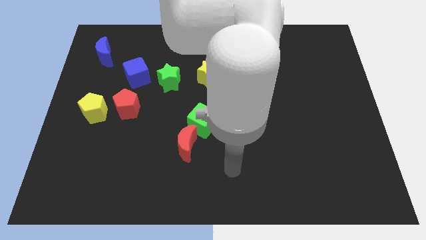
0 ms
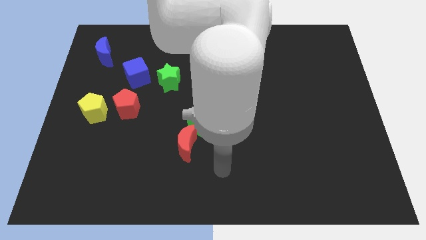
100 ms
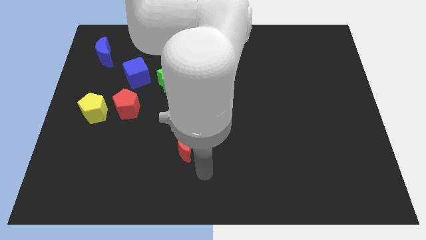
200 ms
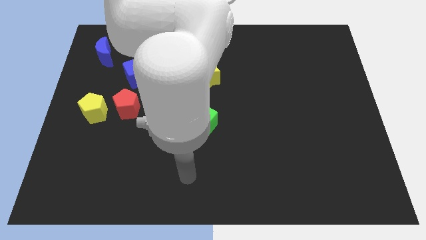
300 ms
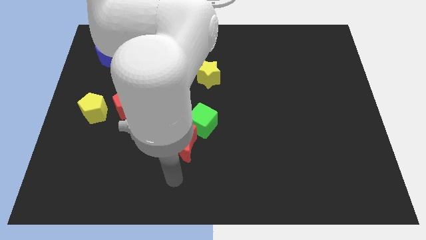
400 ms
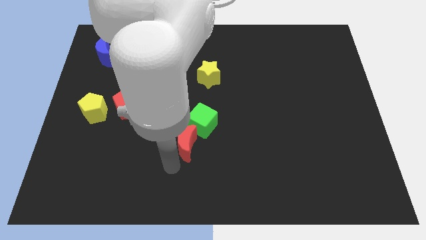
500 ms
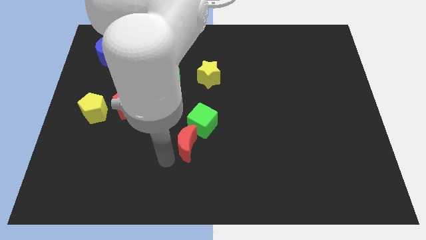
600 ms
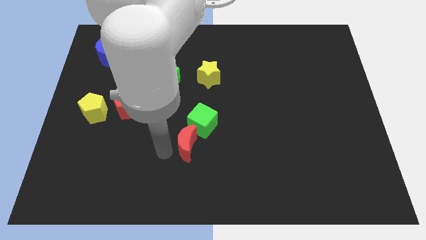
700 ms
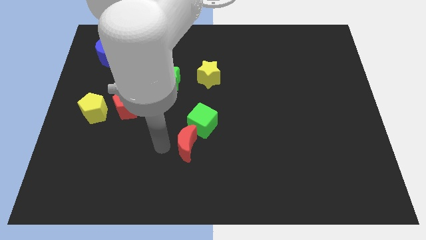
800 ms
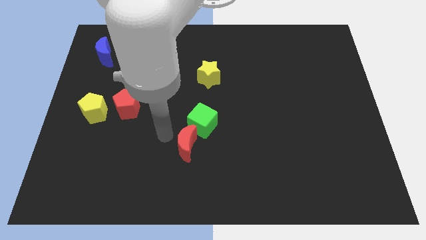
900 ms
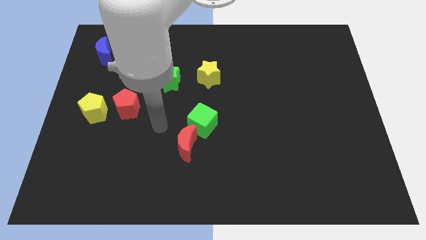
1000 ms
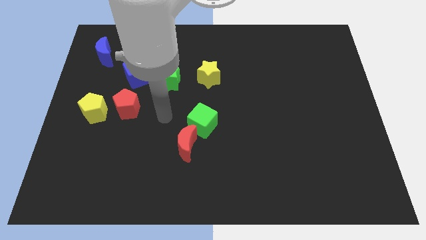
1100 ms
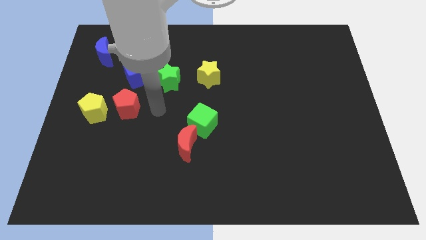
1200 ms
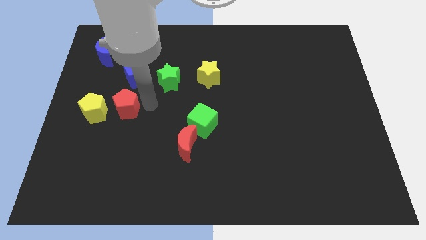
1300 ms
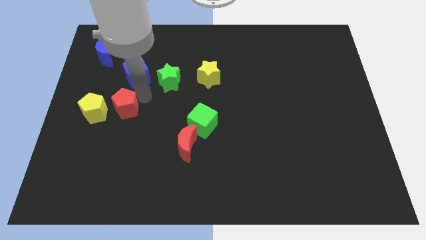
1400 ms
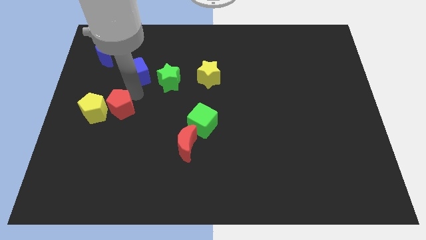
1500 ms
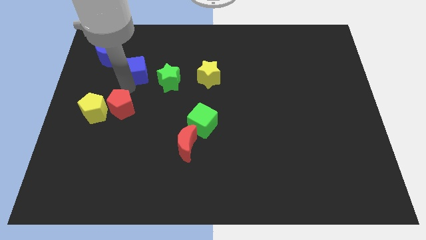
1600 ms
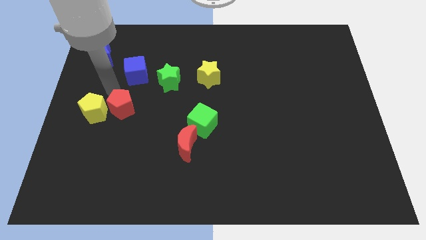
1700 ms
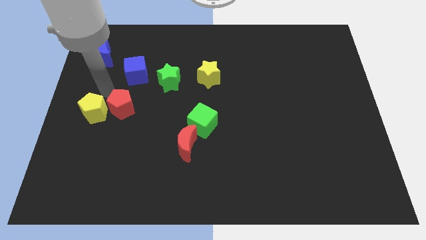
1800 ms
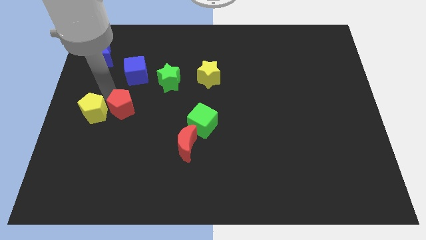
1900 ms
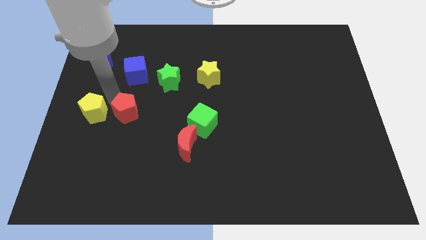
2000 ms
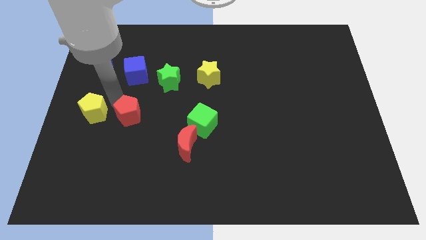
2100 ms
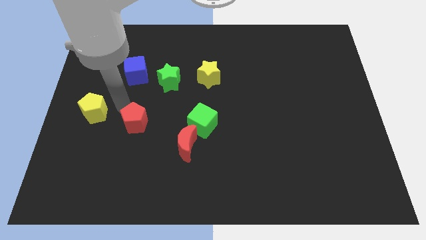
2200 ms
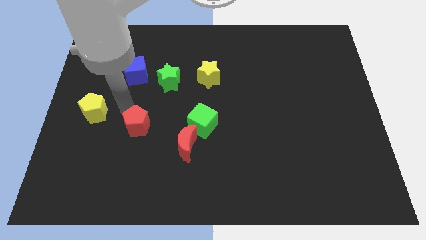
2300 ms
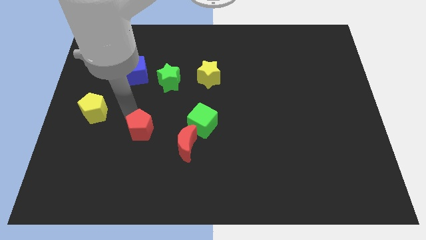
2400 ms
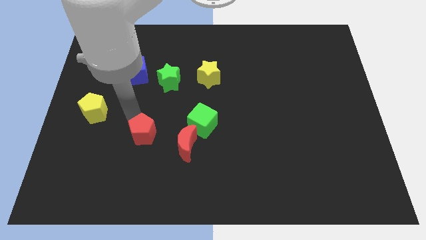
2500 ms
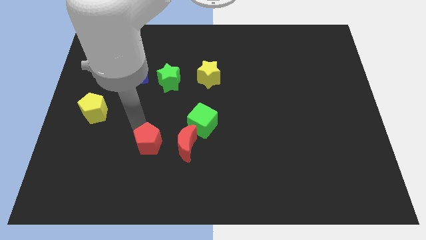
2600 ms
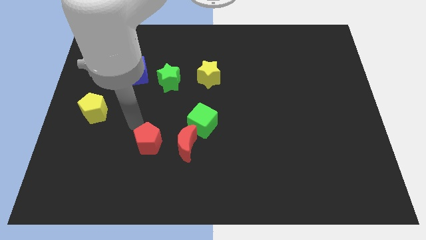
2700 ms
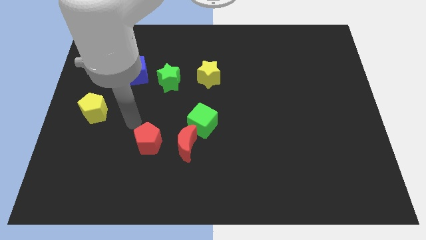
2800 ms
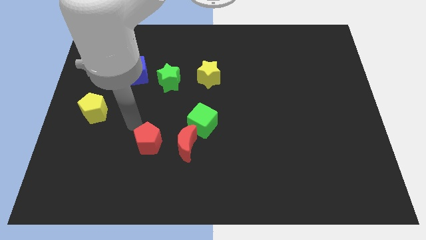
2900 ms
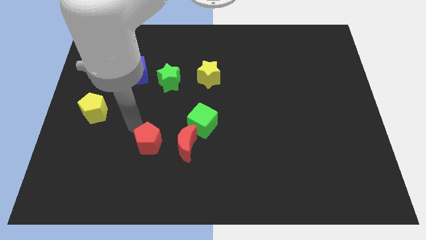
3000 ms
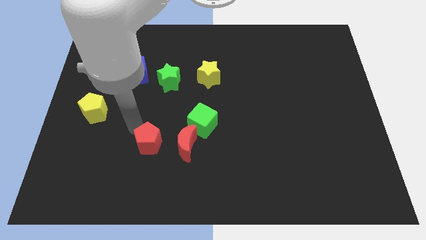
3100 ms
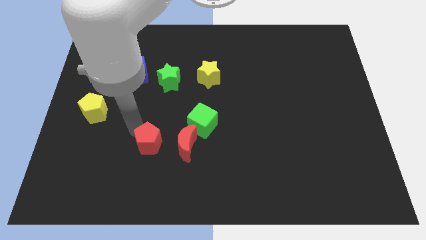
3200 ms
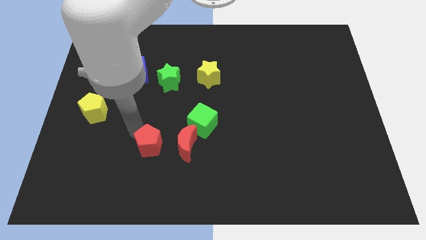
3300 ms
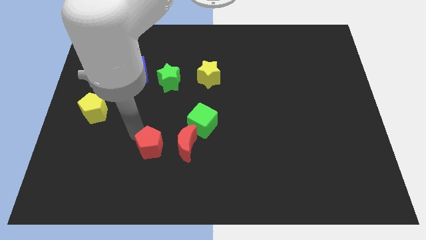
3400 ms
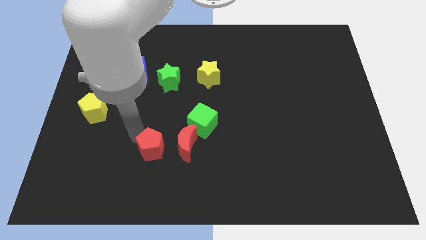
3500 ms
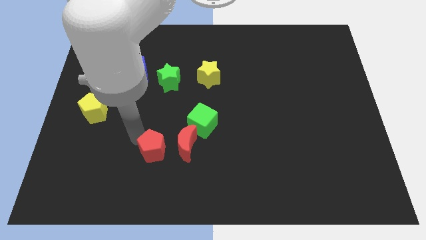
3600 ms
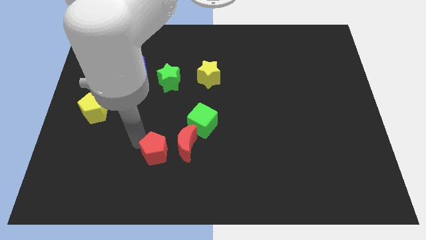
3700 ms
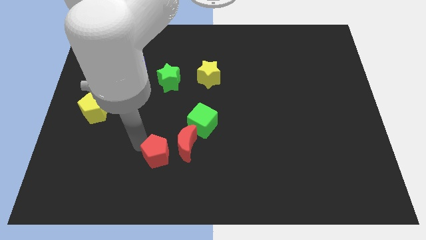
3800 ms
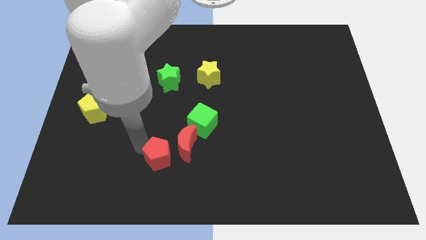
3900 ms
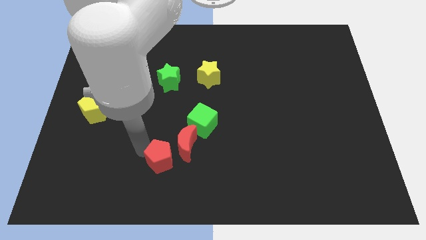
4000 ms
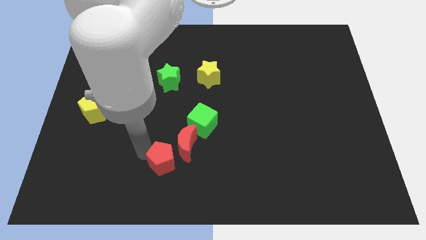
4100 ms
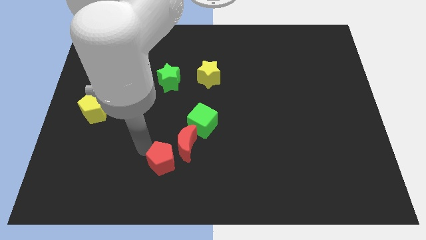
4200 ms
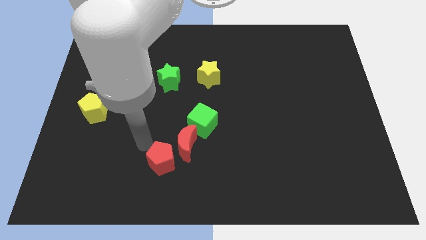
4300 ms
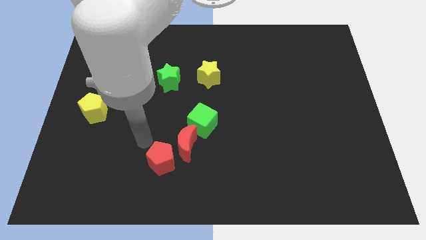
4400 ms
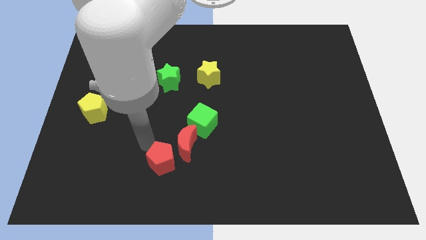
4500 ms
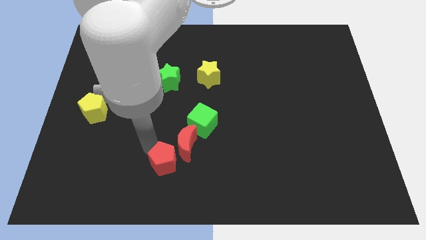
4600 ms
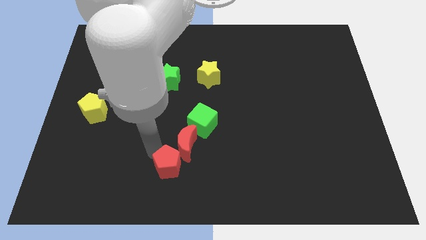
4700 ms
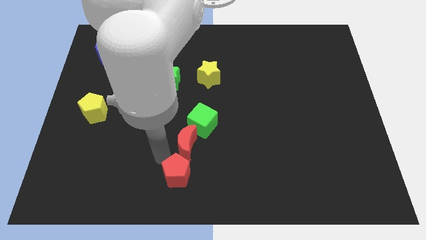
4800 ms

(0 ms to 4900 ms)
put the red pentagon to the bottom

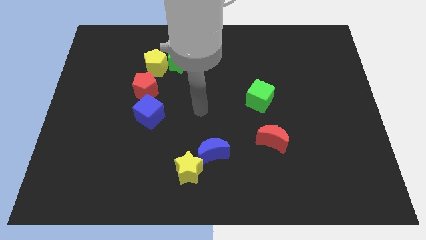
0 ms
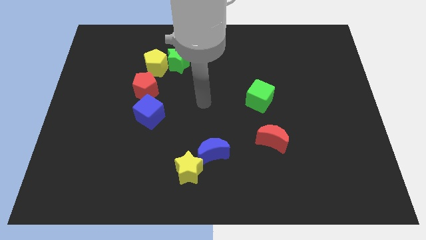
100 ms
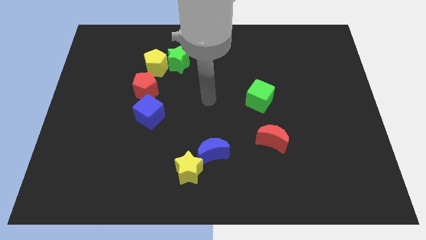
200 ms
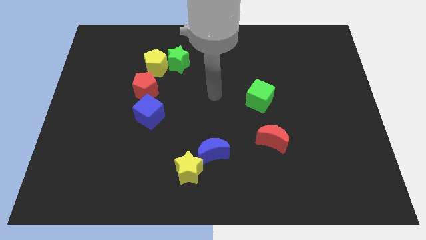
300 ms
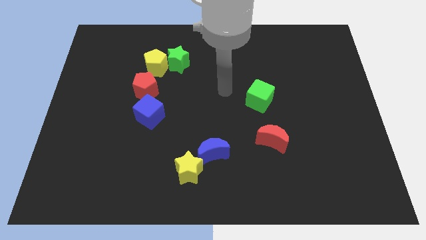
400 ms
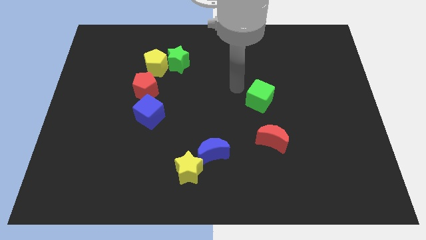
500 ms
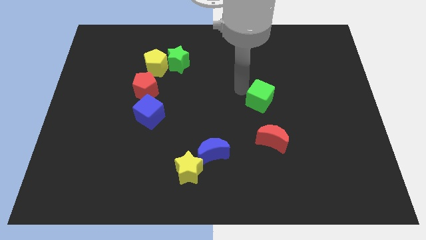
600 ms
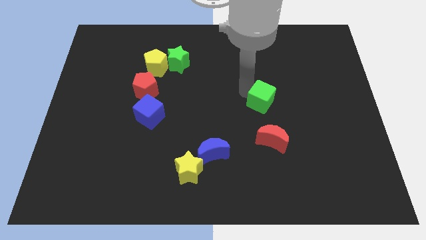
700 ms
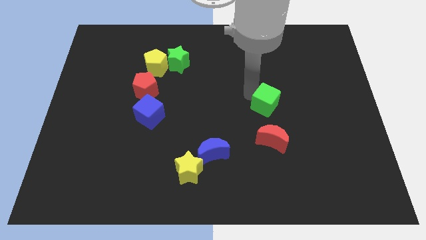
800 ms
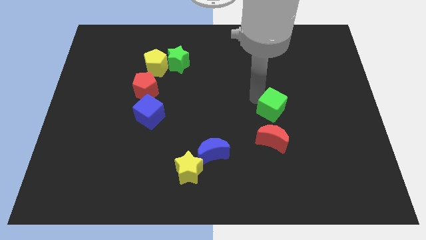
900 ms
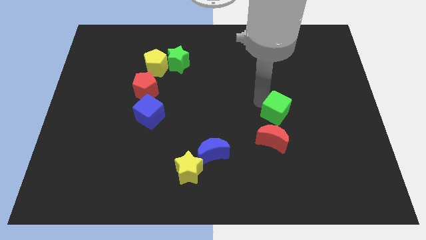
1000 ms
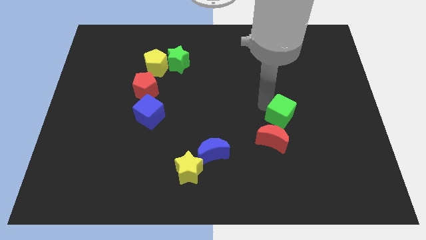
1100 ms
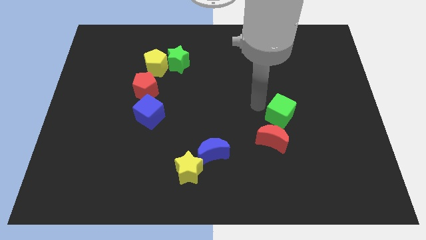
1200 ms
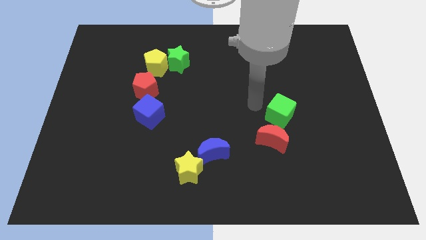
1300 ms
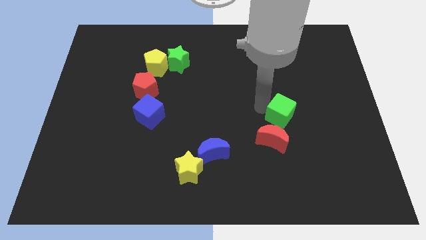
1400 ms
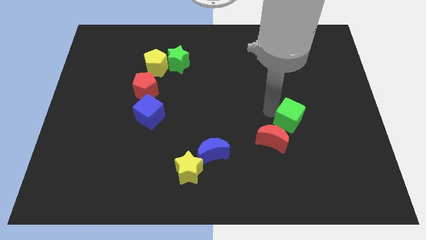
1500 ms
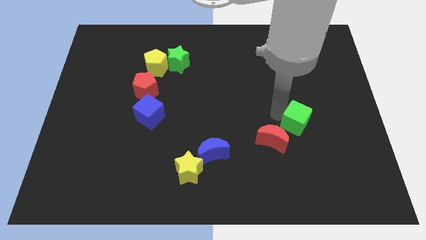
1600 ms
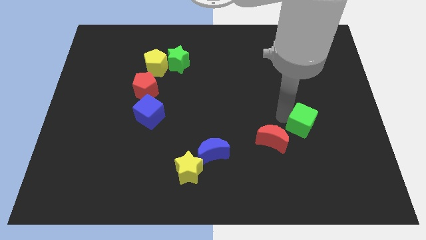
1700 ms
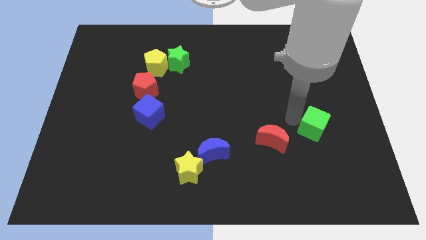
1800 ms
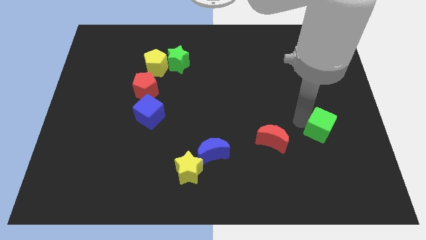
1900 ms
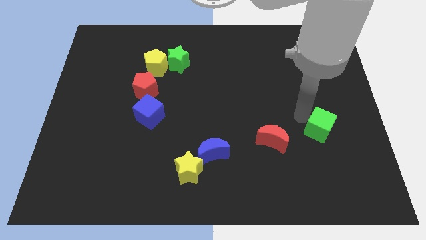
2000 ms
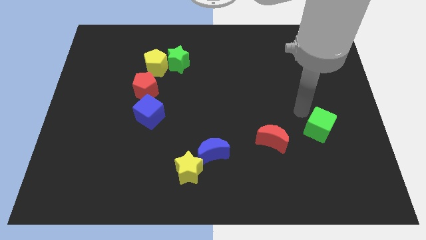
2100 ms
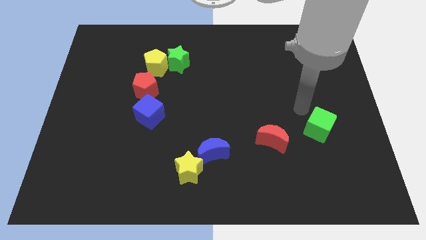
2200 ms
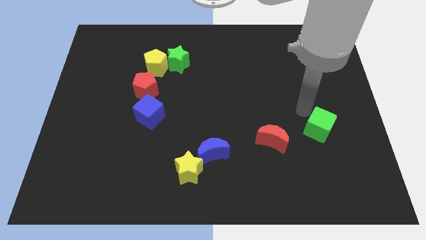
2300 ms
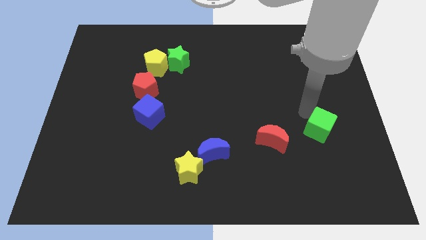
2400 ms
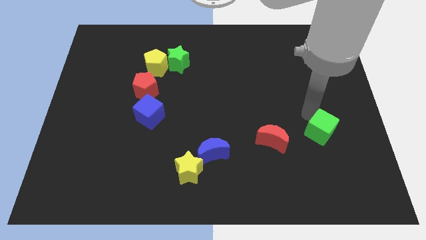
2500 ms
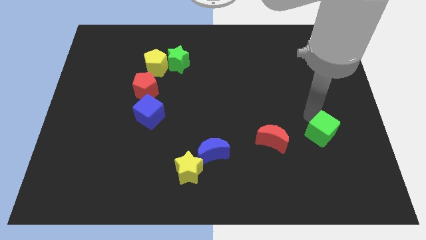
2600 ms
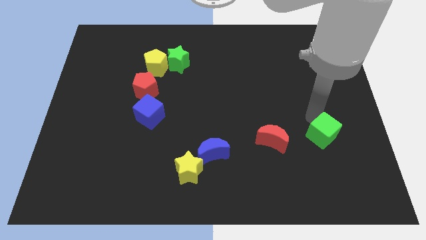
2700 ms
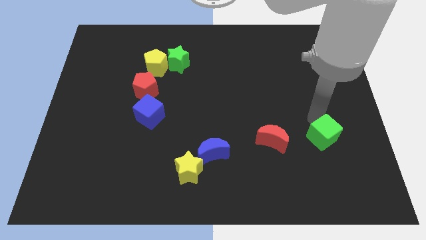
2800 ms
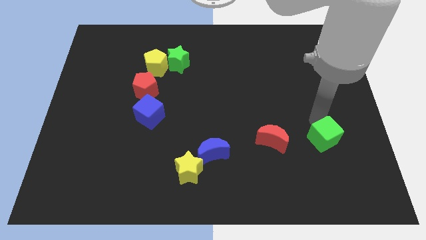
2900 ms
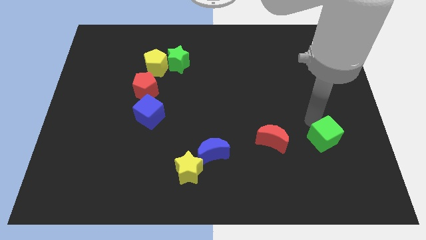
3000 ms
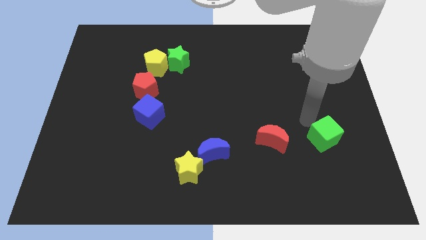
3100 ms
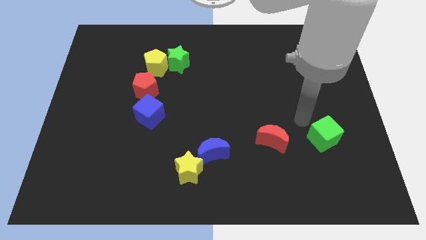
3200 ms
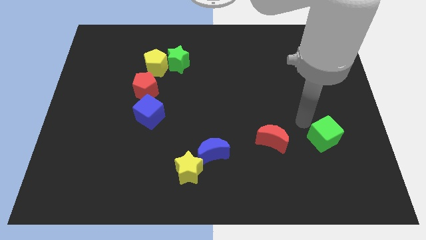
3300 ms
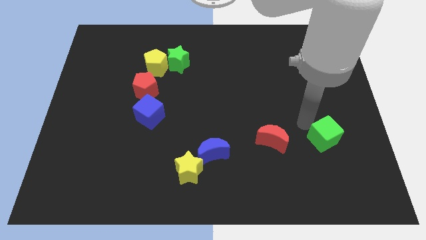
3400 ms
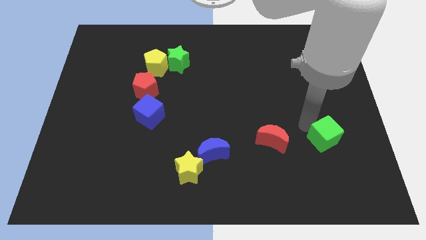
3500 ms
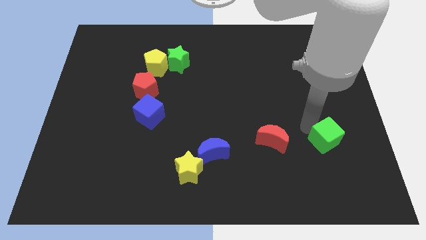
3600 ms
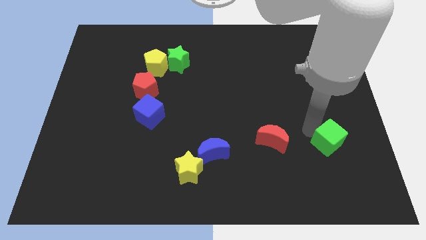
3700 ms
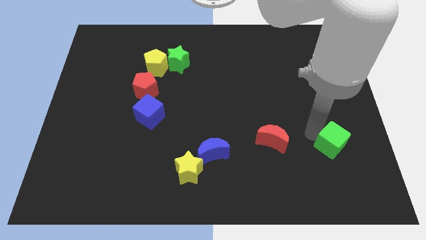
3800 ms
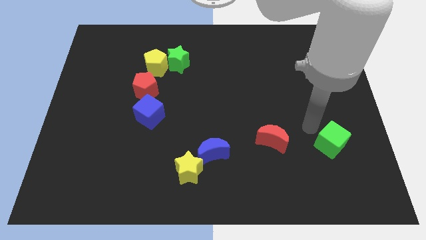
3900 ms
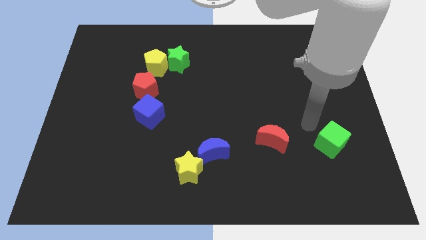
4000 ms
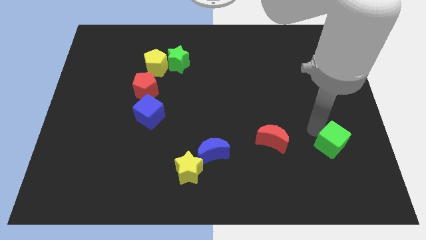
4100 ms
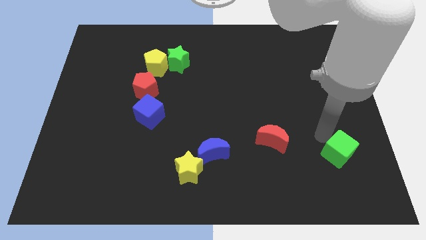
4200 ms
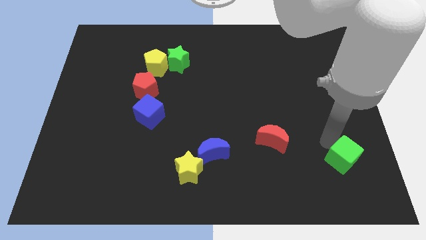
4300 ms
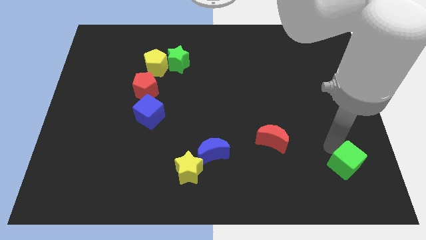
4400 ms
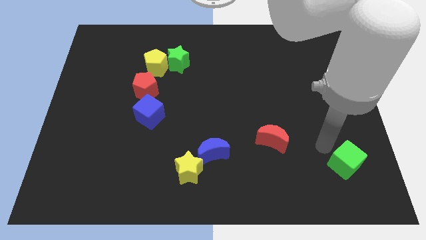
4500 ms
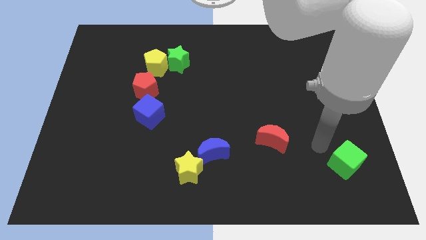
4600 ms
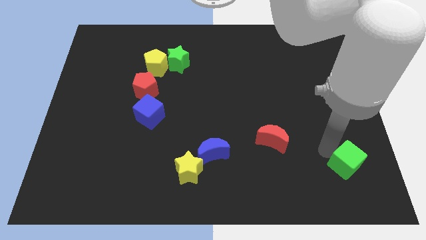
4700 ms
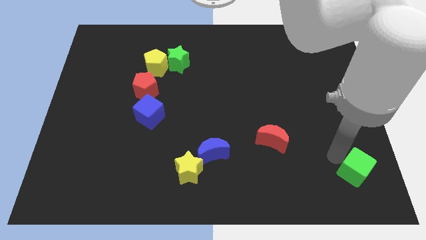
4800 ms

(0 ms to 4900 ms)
slide the green cube to the bottom right of the board
